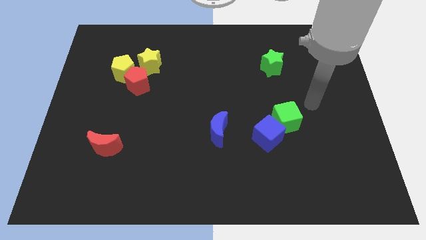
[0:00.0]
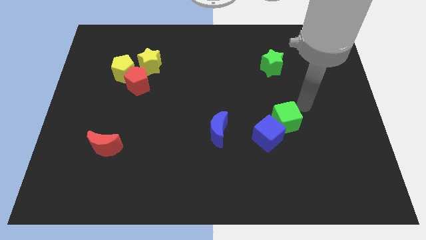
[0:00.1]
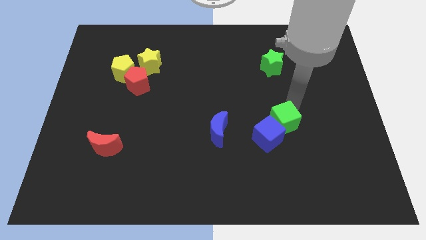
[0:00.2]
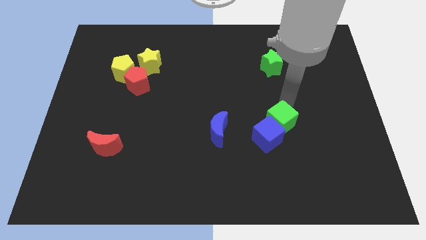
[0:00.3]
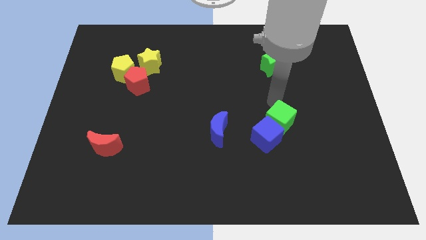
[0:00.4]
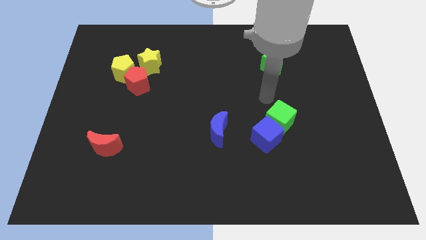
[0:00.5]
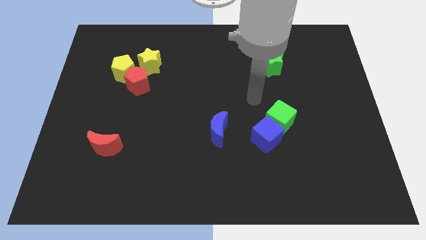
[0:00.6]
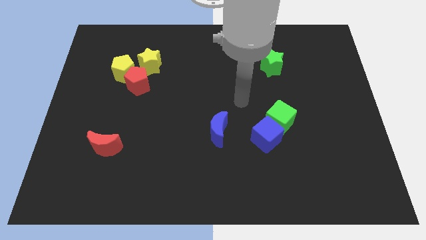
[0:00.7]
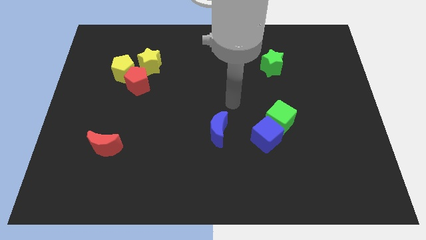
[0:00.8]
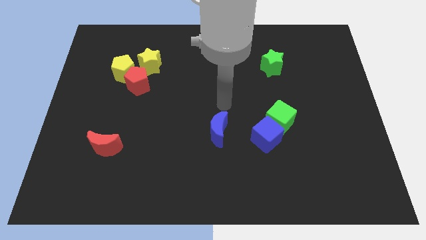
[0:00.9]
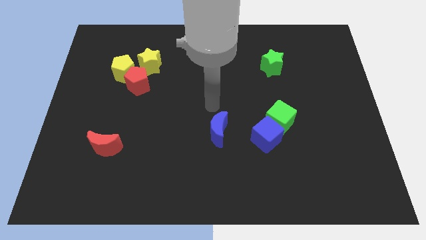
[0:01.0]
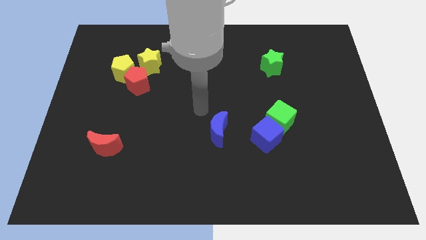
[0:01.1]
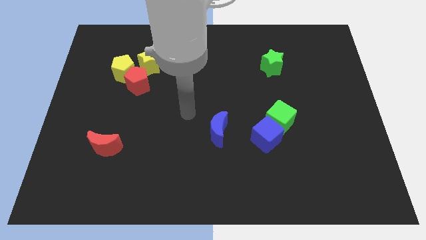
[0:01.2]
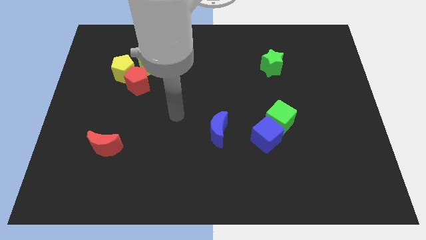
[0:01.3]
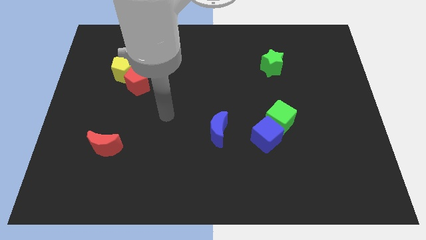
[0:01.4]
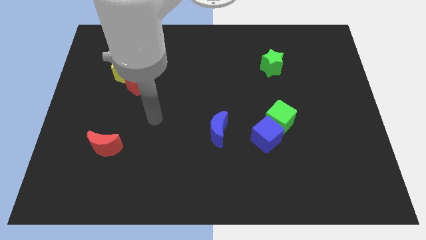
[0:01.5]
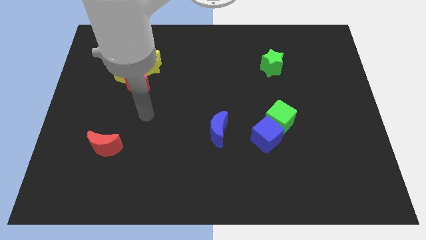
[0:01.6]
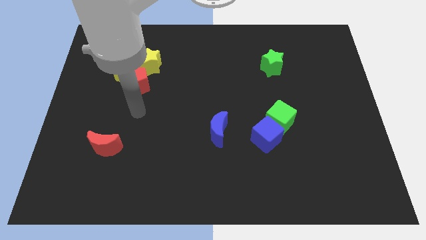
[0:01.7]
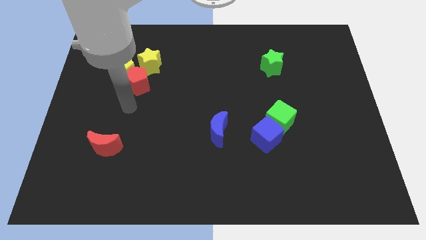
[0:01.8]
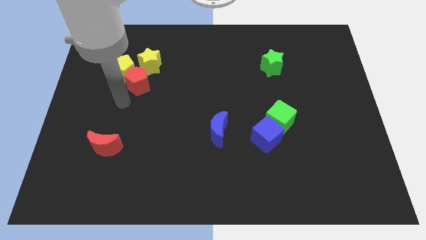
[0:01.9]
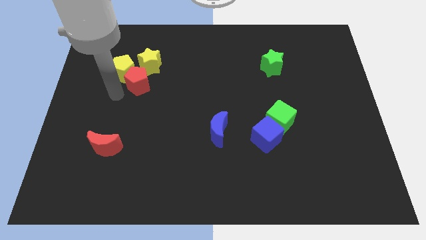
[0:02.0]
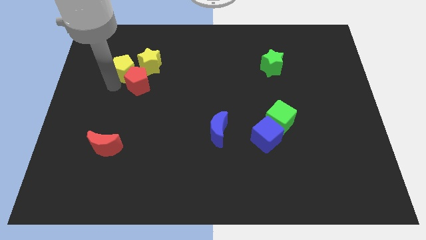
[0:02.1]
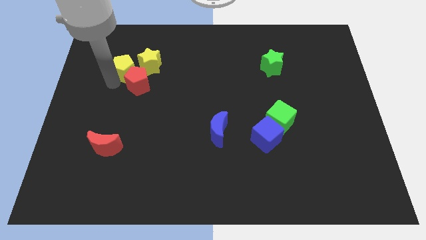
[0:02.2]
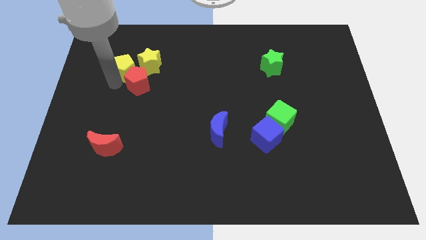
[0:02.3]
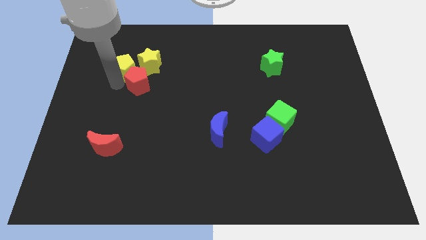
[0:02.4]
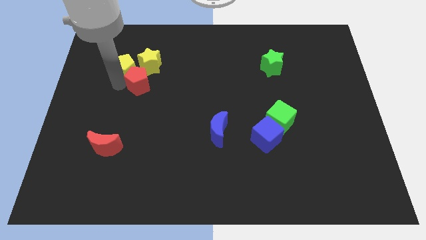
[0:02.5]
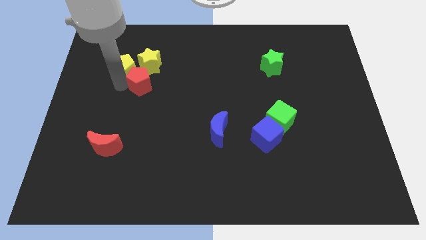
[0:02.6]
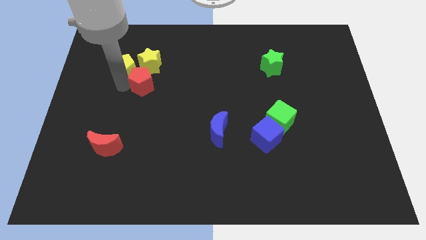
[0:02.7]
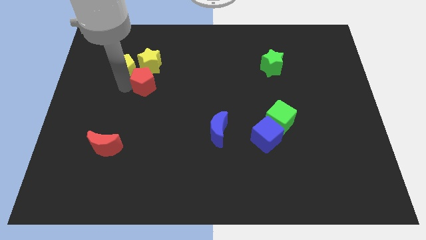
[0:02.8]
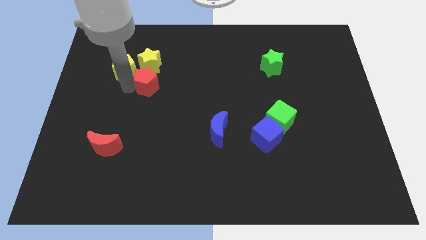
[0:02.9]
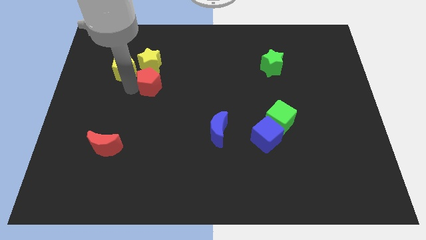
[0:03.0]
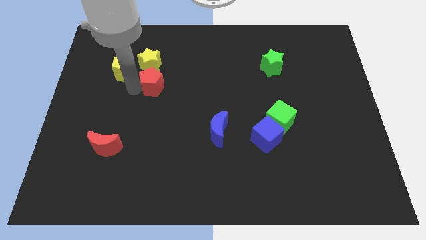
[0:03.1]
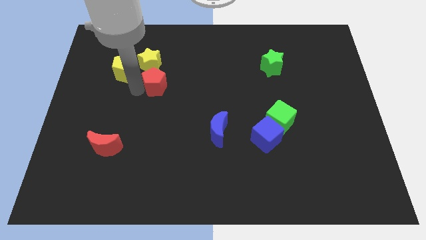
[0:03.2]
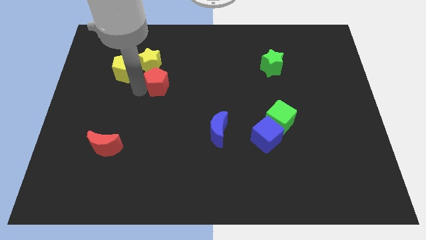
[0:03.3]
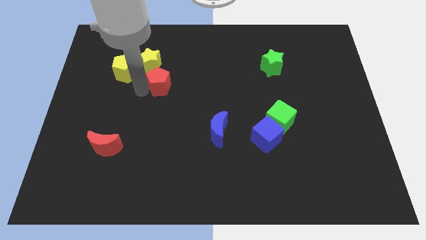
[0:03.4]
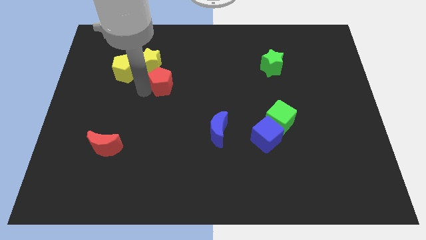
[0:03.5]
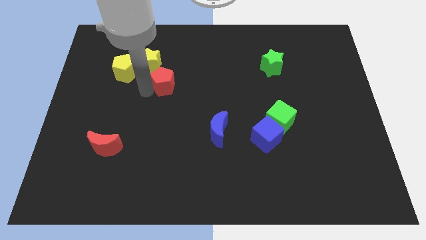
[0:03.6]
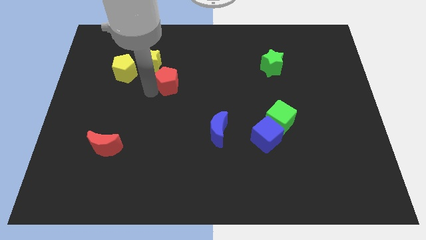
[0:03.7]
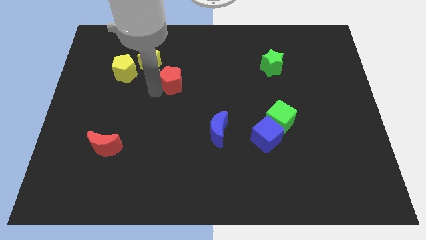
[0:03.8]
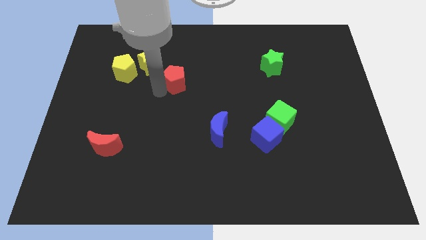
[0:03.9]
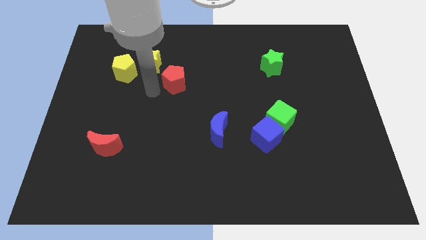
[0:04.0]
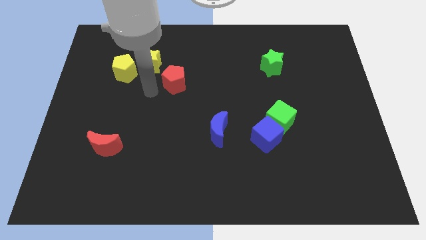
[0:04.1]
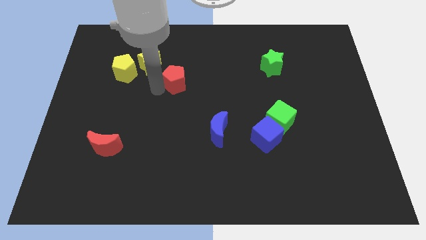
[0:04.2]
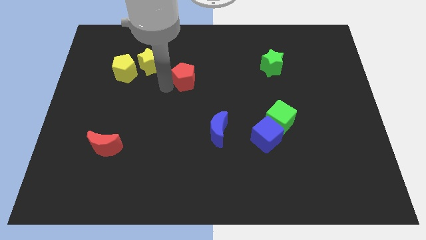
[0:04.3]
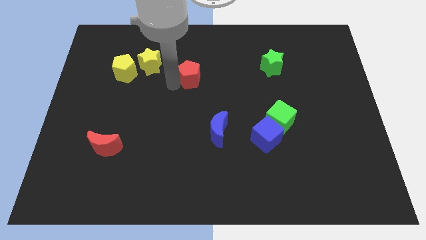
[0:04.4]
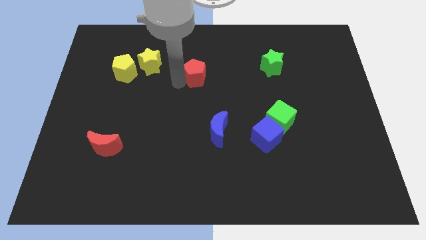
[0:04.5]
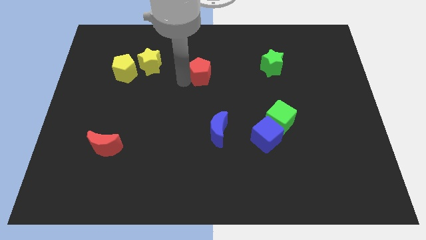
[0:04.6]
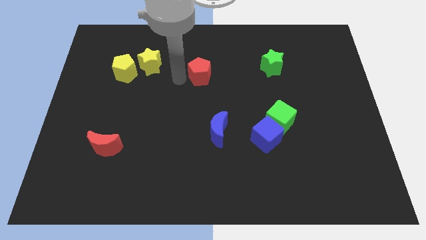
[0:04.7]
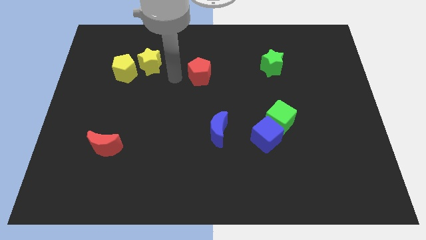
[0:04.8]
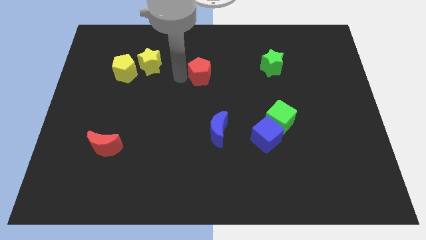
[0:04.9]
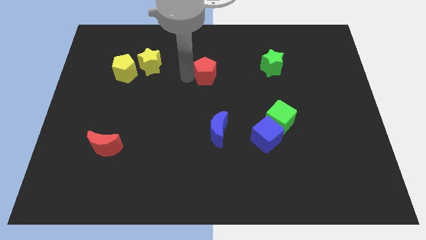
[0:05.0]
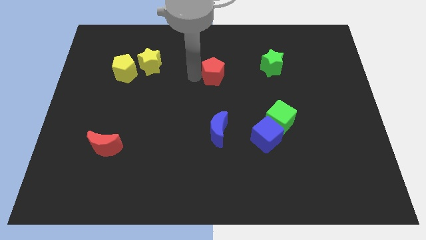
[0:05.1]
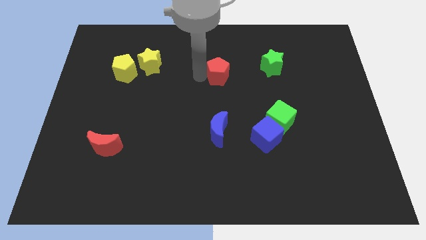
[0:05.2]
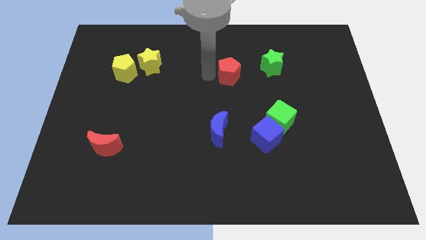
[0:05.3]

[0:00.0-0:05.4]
slide the red pentagon to the right

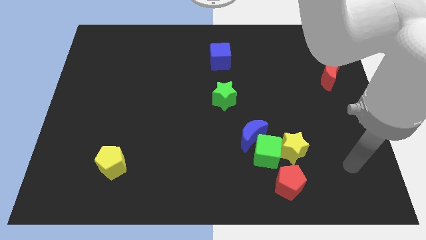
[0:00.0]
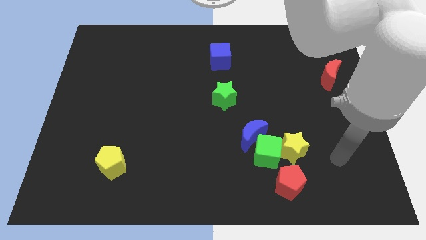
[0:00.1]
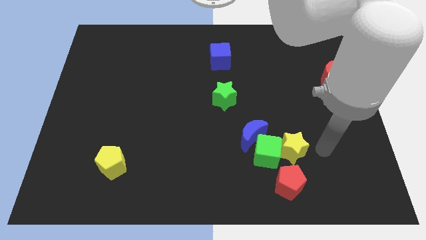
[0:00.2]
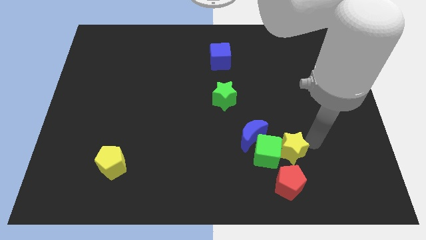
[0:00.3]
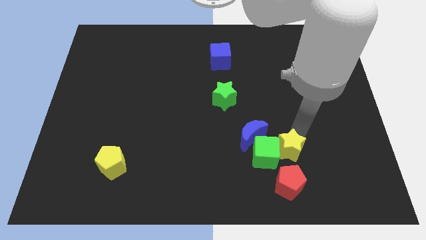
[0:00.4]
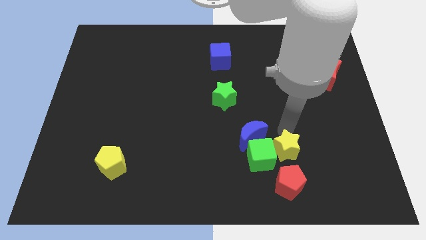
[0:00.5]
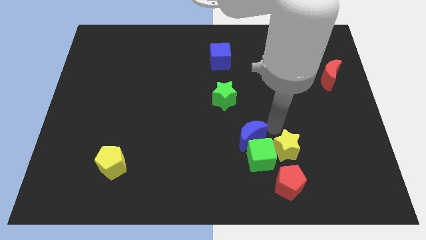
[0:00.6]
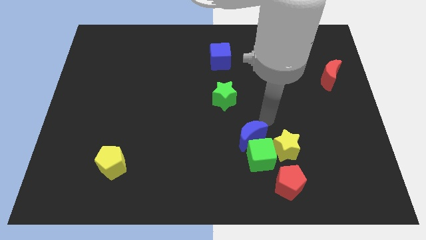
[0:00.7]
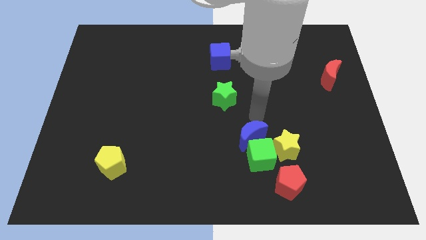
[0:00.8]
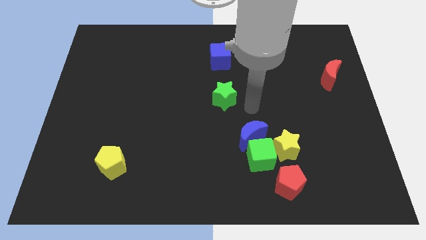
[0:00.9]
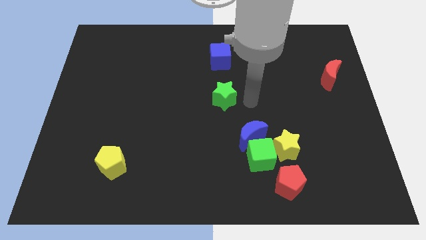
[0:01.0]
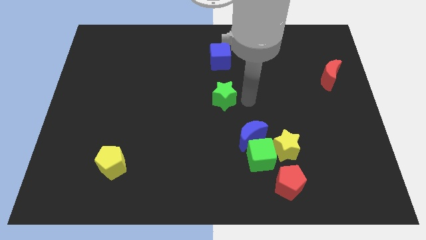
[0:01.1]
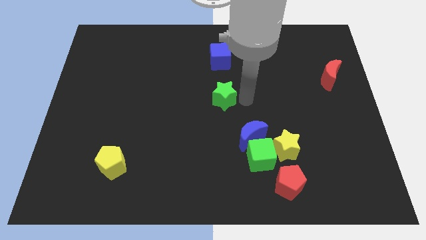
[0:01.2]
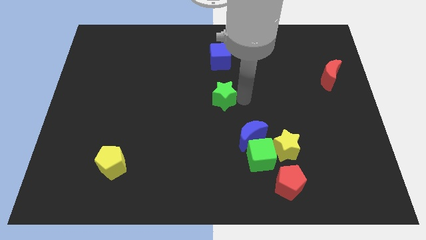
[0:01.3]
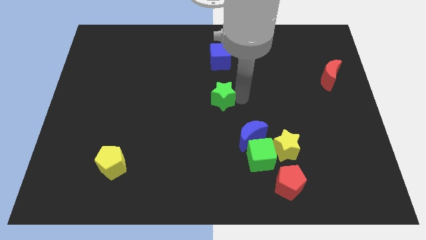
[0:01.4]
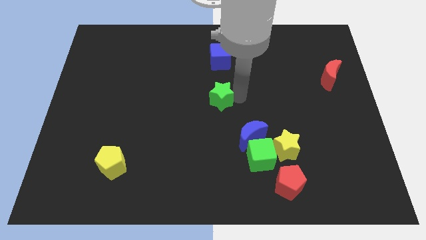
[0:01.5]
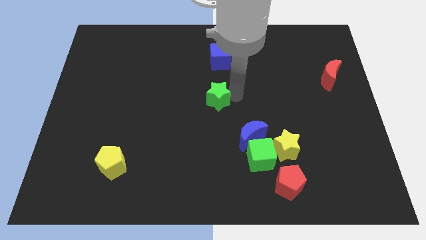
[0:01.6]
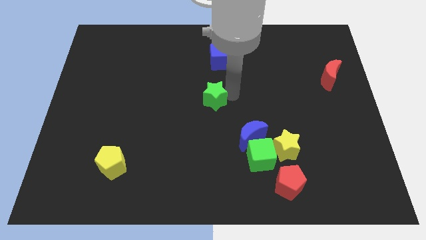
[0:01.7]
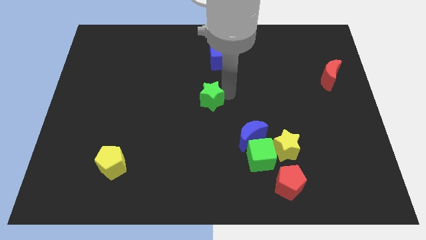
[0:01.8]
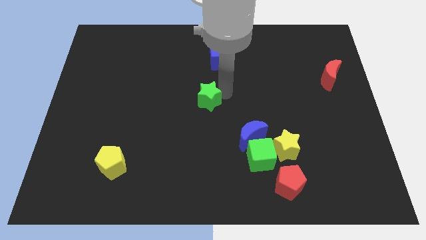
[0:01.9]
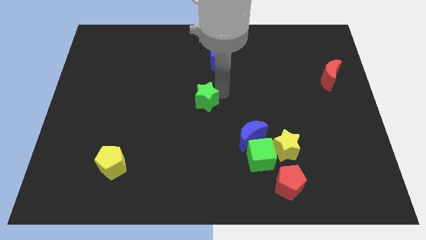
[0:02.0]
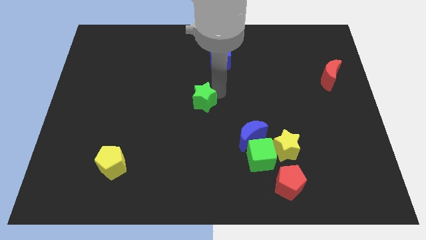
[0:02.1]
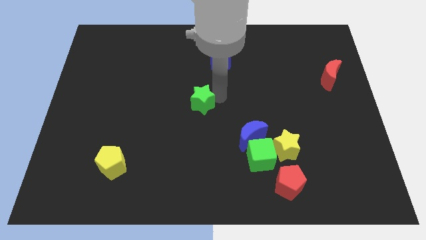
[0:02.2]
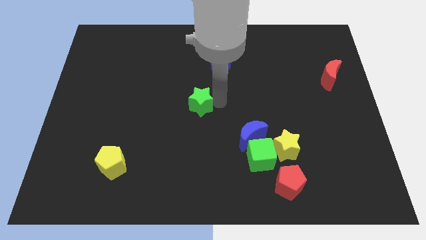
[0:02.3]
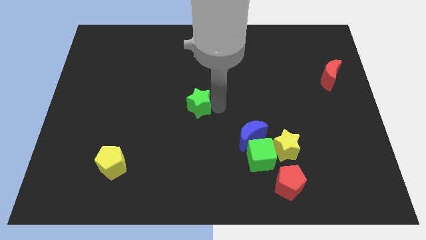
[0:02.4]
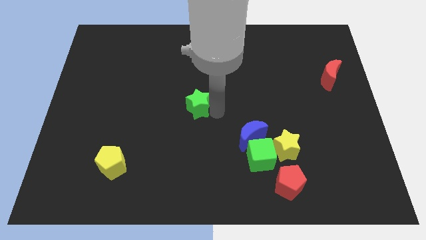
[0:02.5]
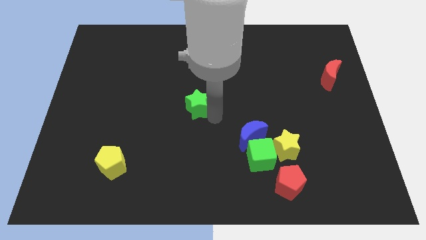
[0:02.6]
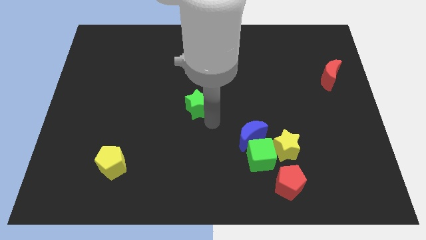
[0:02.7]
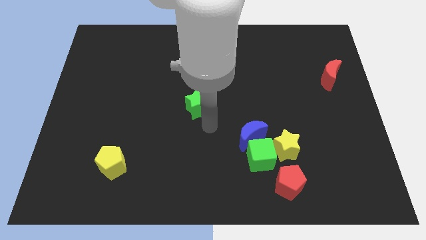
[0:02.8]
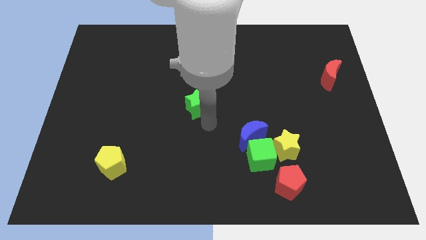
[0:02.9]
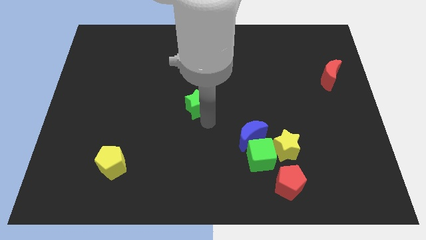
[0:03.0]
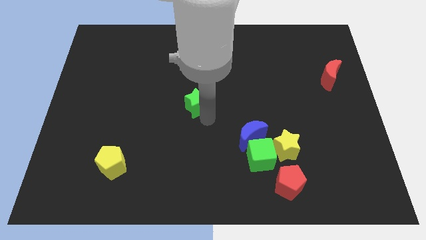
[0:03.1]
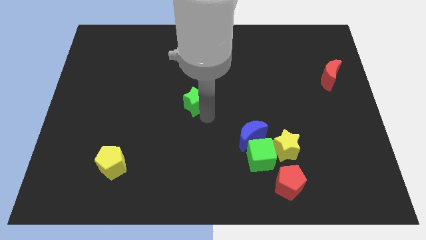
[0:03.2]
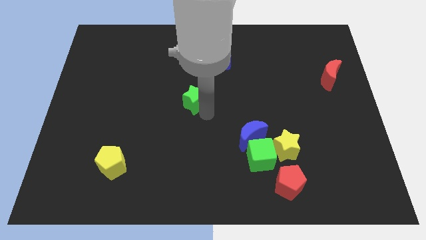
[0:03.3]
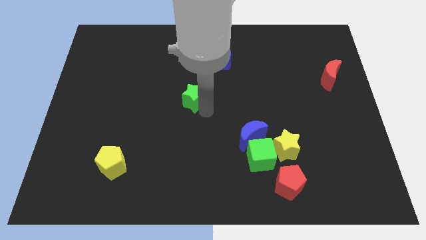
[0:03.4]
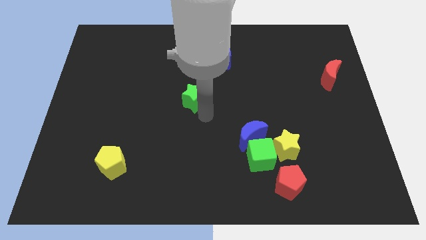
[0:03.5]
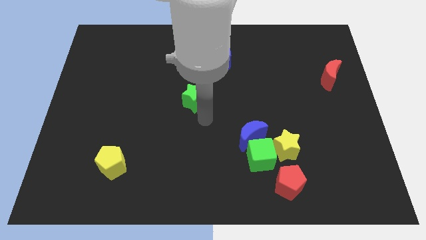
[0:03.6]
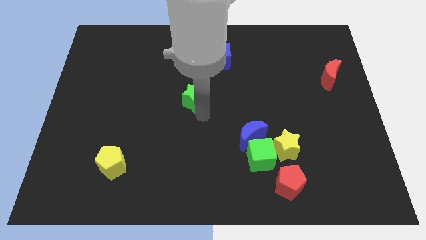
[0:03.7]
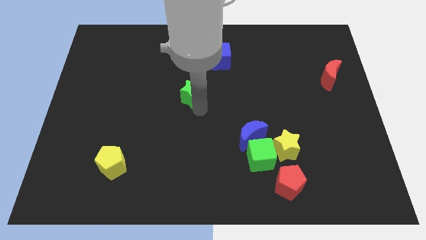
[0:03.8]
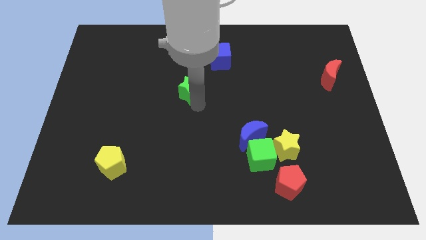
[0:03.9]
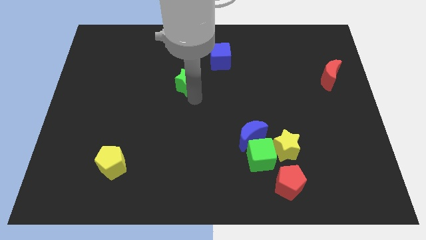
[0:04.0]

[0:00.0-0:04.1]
push the green star a little diagonally up and left
